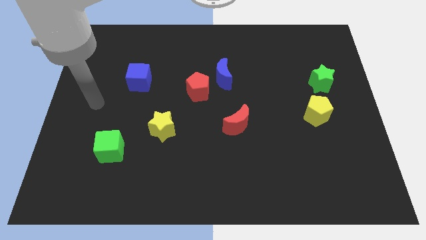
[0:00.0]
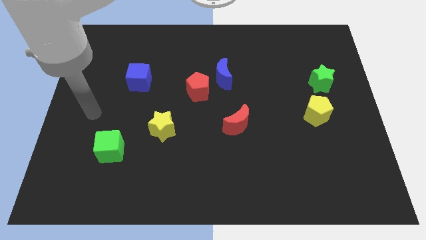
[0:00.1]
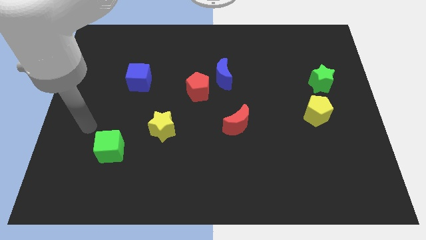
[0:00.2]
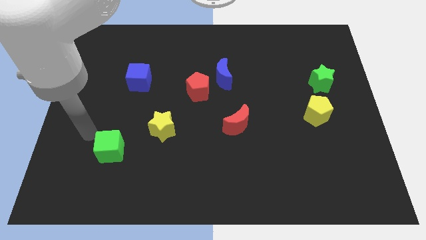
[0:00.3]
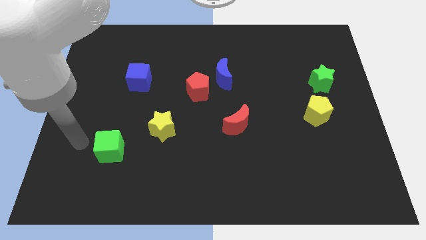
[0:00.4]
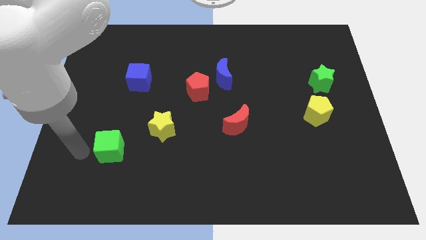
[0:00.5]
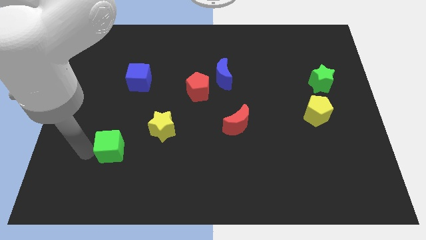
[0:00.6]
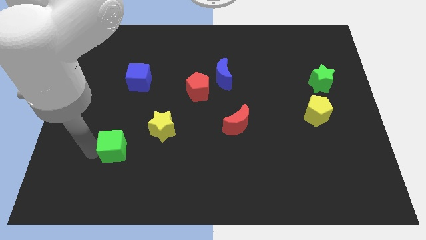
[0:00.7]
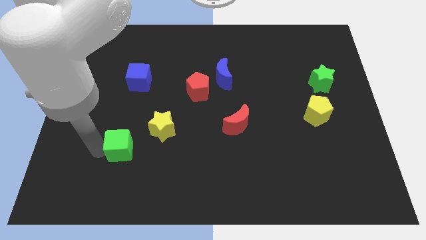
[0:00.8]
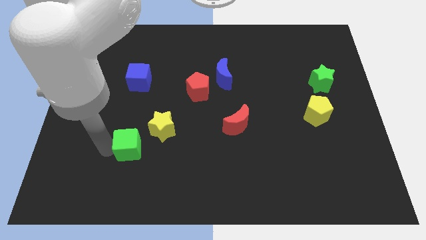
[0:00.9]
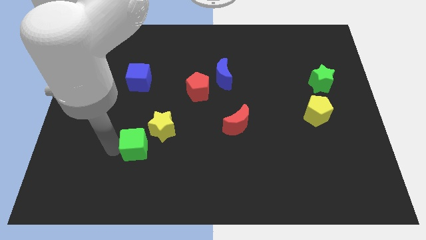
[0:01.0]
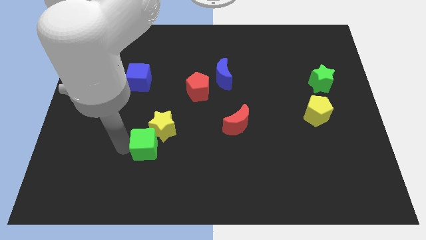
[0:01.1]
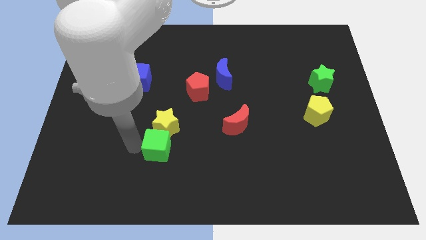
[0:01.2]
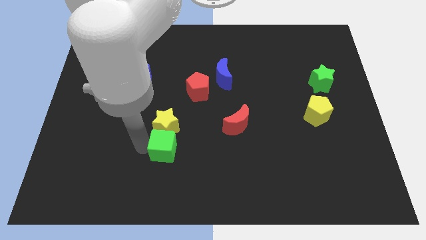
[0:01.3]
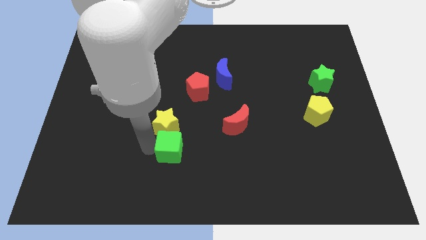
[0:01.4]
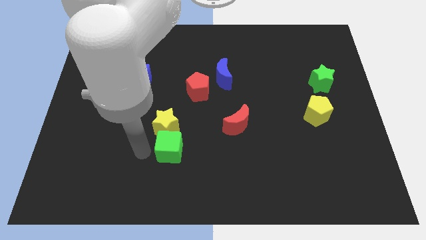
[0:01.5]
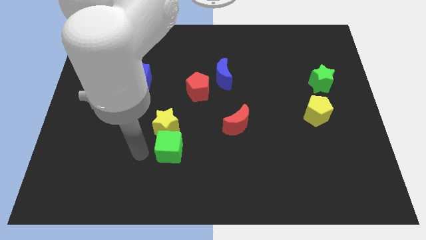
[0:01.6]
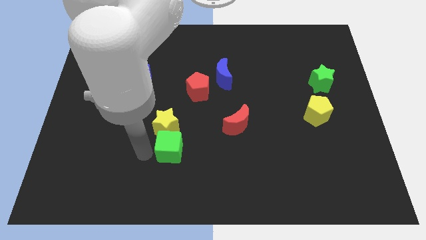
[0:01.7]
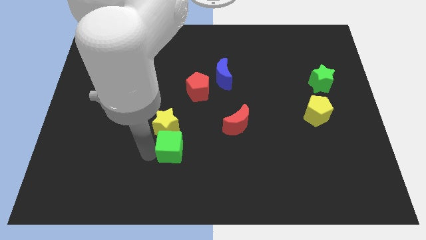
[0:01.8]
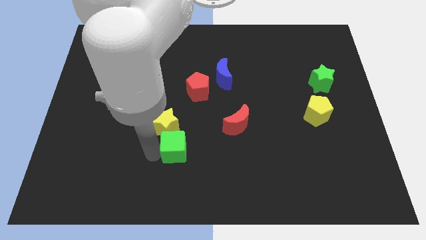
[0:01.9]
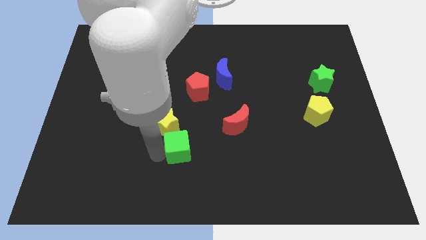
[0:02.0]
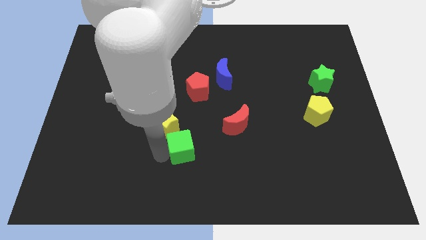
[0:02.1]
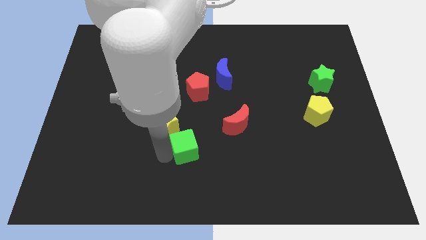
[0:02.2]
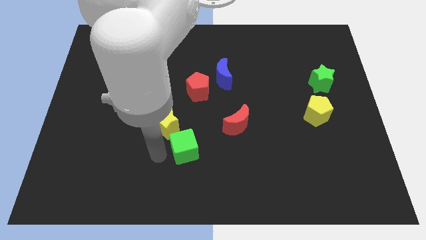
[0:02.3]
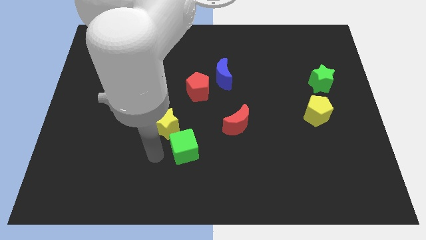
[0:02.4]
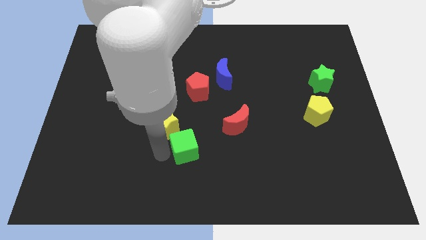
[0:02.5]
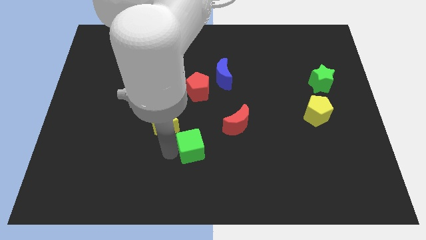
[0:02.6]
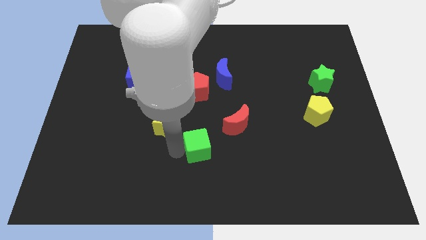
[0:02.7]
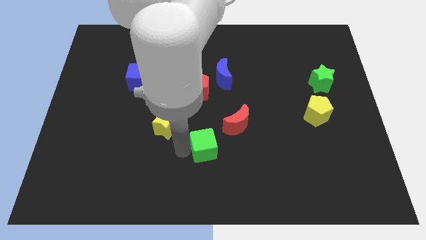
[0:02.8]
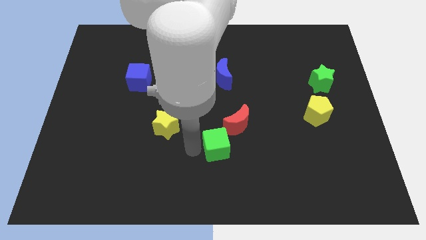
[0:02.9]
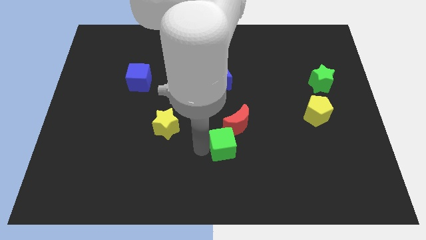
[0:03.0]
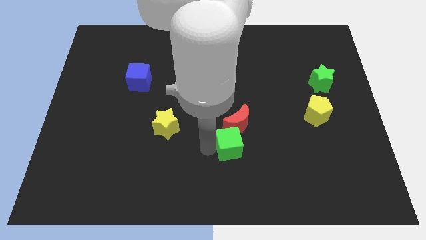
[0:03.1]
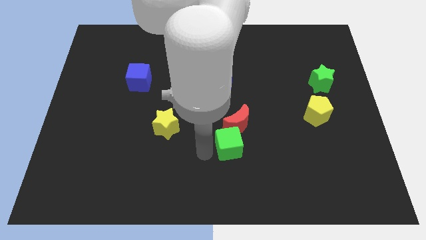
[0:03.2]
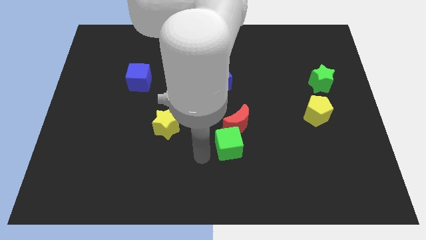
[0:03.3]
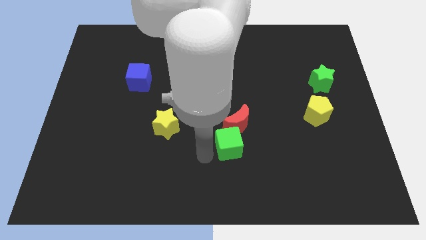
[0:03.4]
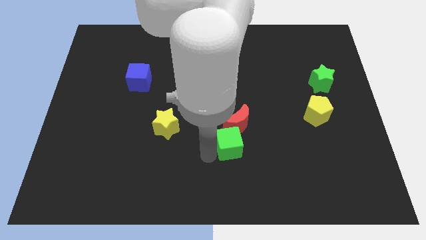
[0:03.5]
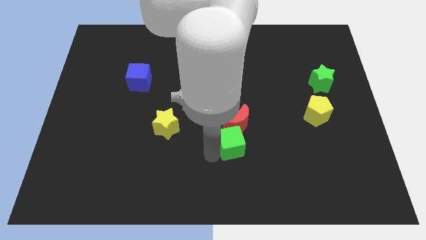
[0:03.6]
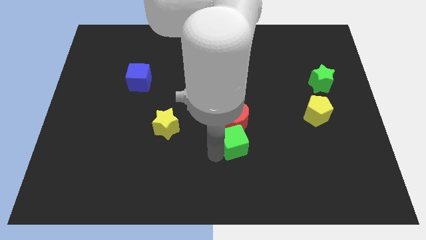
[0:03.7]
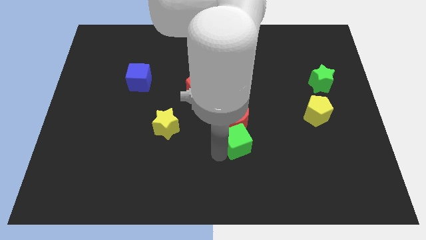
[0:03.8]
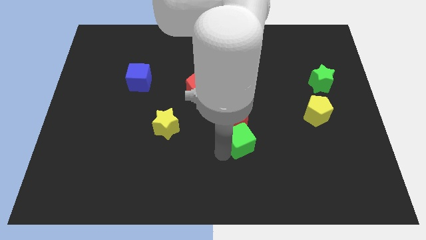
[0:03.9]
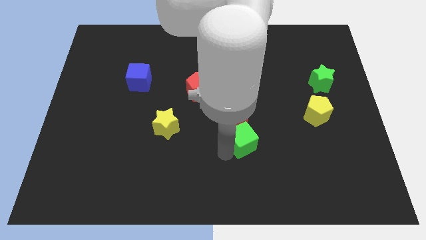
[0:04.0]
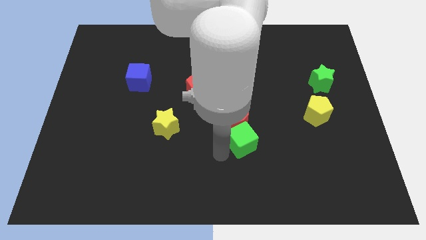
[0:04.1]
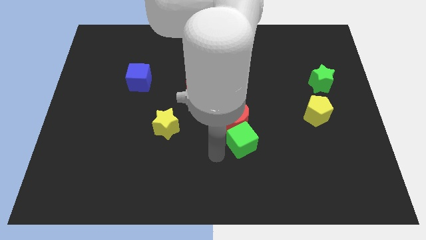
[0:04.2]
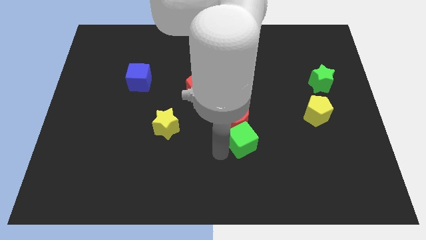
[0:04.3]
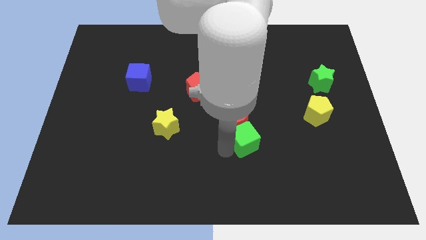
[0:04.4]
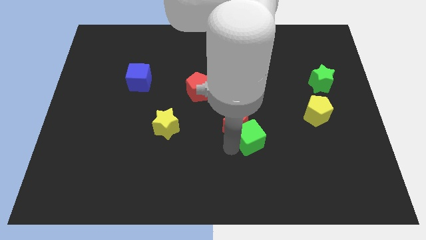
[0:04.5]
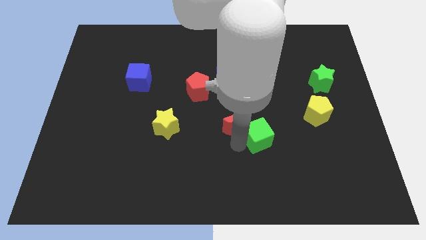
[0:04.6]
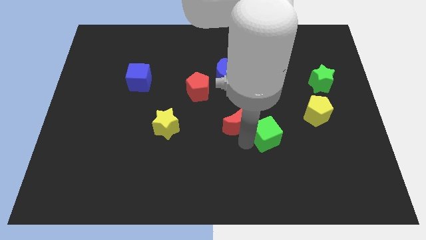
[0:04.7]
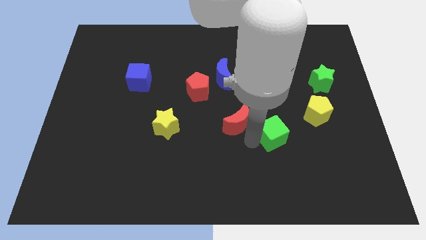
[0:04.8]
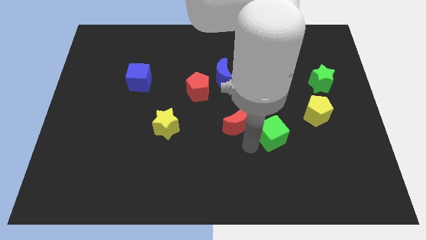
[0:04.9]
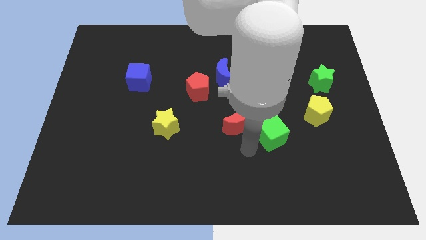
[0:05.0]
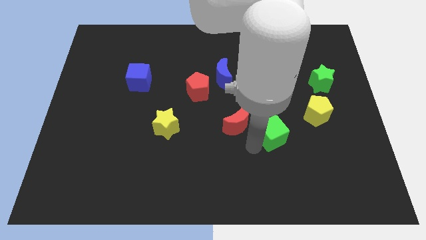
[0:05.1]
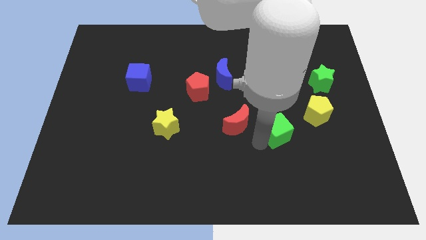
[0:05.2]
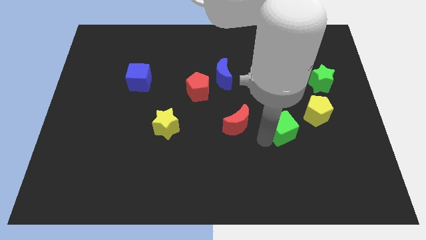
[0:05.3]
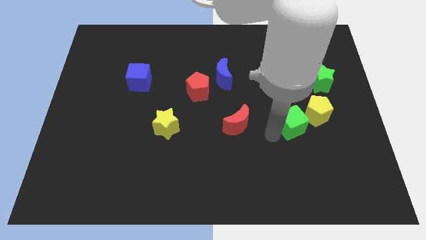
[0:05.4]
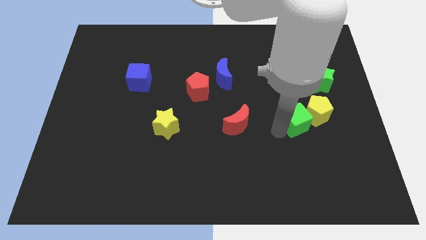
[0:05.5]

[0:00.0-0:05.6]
put the green cube close to the yellow pentagon

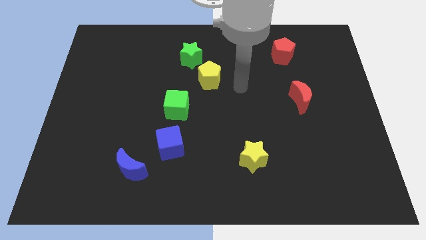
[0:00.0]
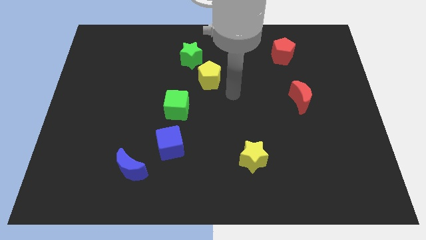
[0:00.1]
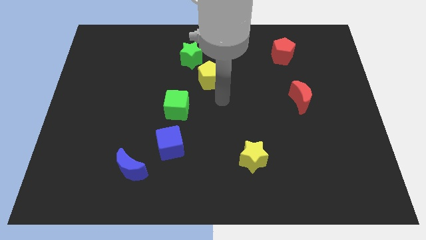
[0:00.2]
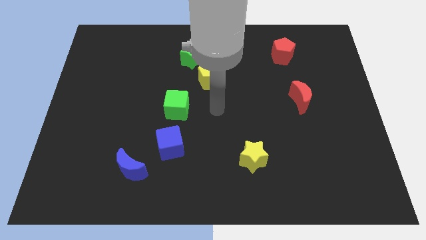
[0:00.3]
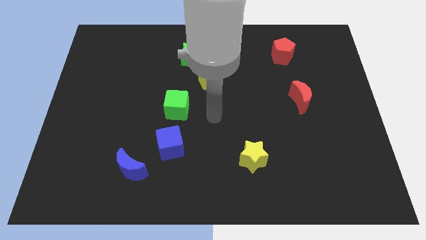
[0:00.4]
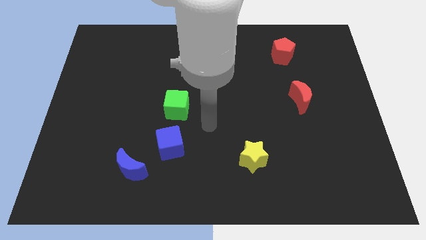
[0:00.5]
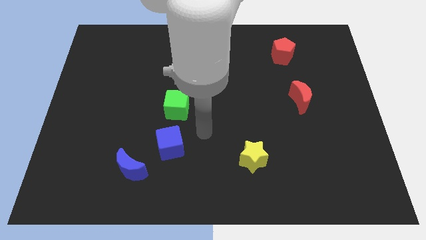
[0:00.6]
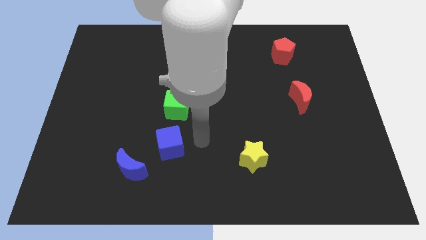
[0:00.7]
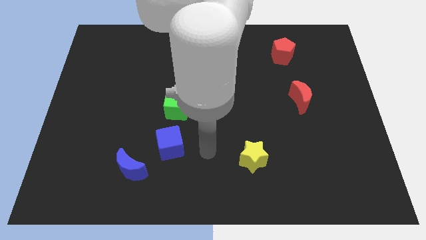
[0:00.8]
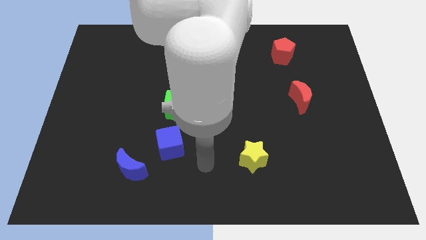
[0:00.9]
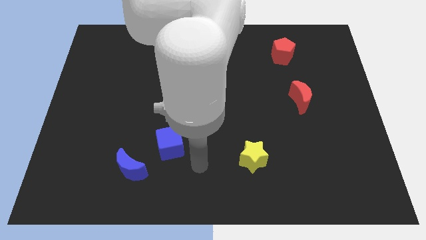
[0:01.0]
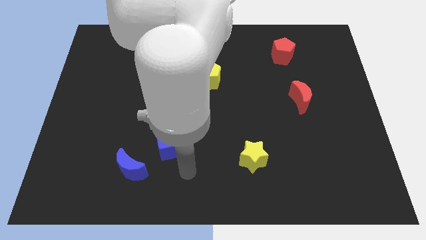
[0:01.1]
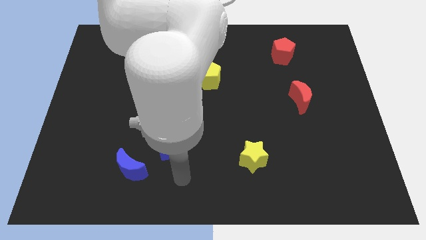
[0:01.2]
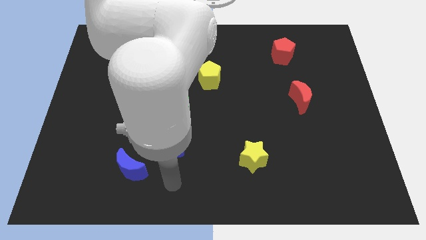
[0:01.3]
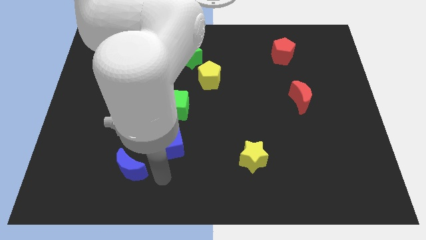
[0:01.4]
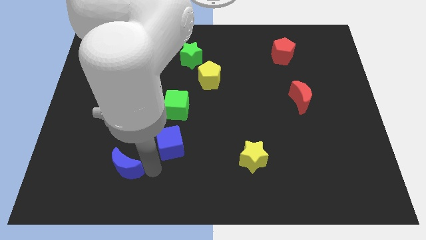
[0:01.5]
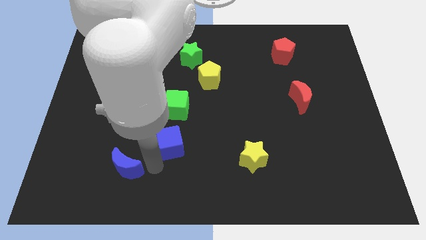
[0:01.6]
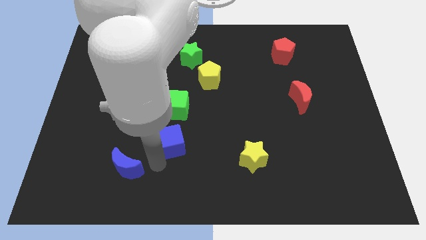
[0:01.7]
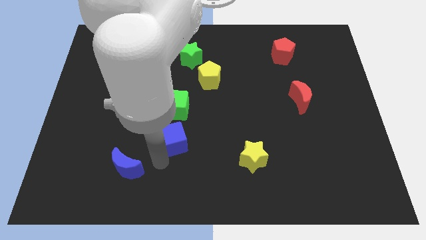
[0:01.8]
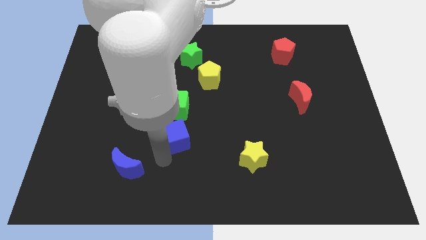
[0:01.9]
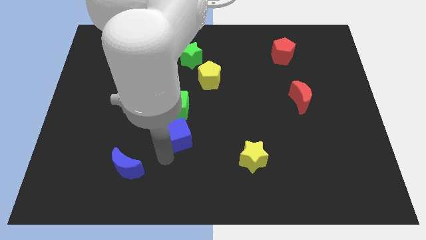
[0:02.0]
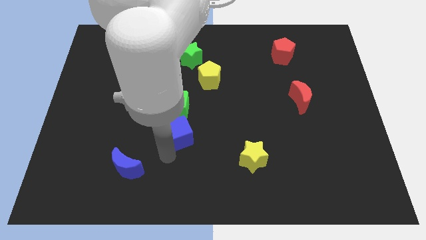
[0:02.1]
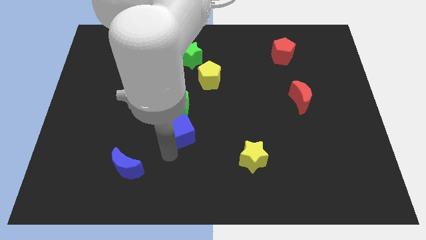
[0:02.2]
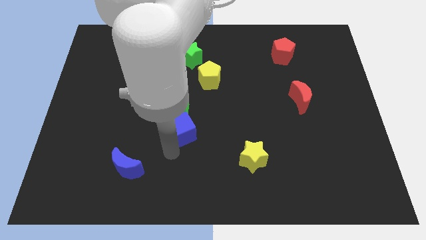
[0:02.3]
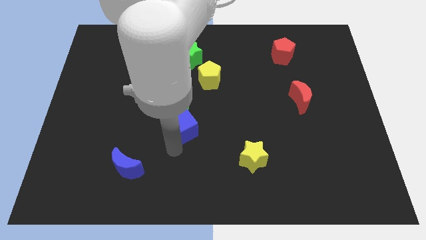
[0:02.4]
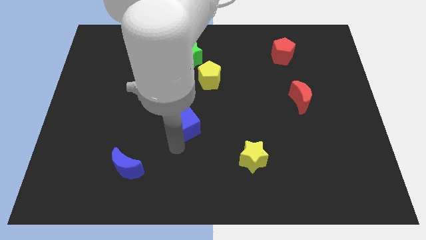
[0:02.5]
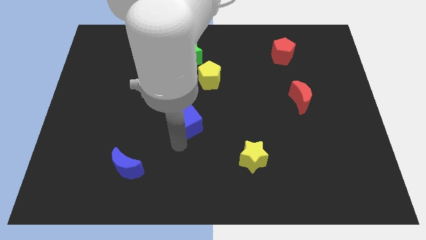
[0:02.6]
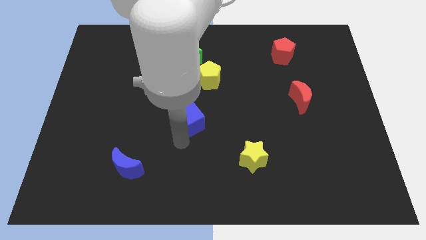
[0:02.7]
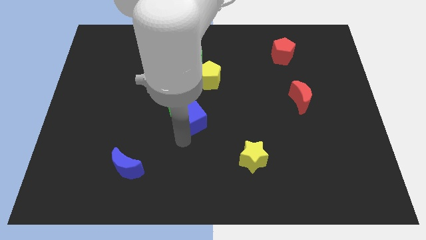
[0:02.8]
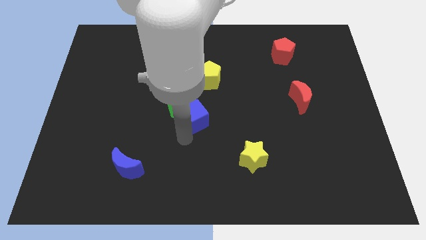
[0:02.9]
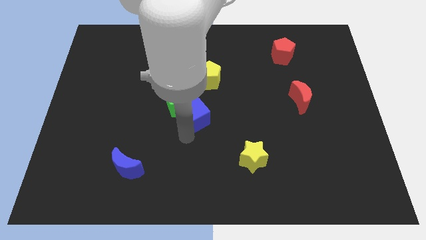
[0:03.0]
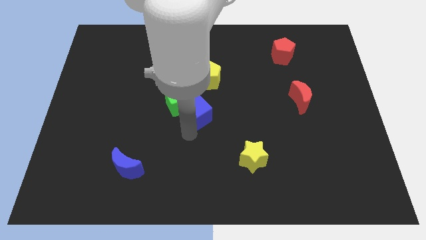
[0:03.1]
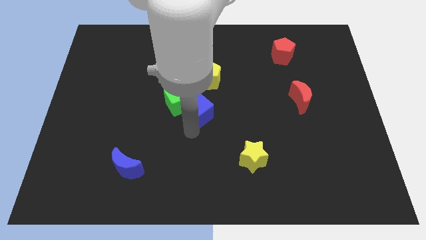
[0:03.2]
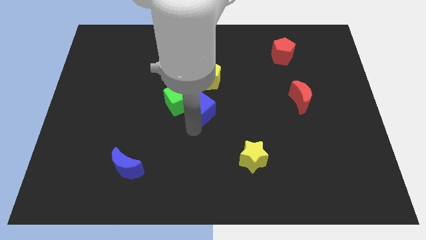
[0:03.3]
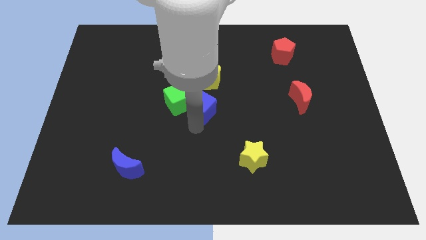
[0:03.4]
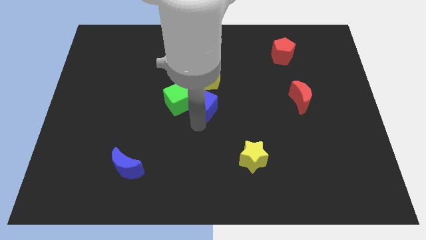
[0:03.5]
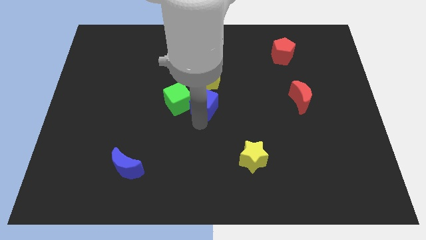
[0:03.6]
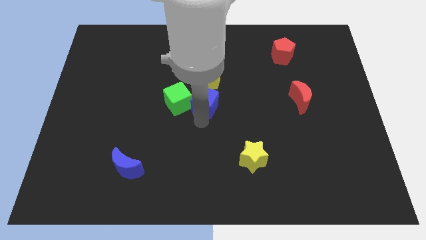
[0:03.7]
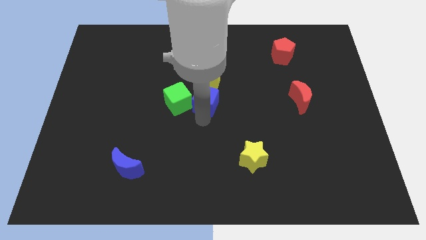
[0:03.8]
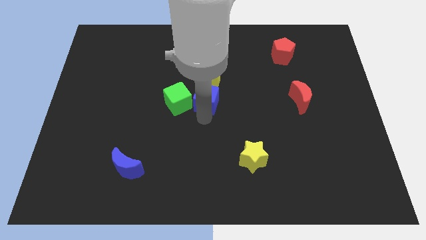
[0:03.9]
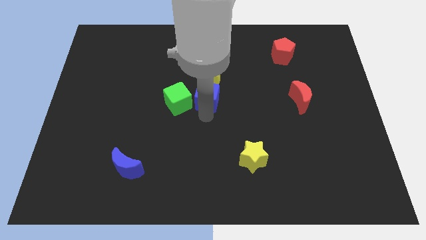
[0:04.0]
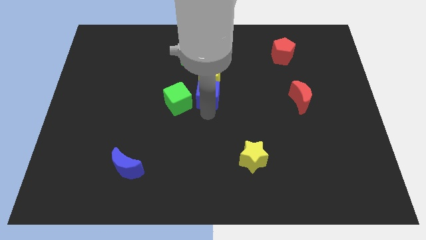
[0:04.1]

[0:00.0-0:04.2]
move the blue cube next to the yellow pentagon
